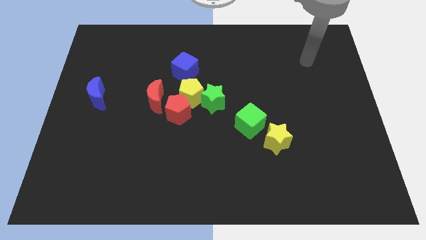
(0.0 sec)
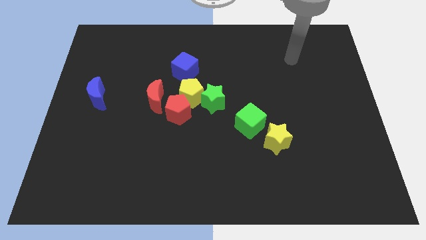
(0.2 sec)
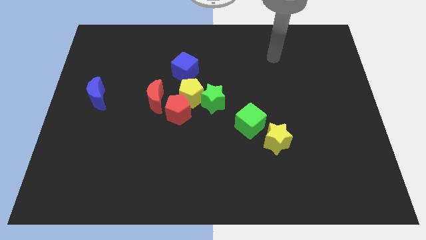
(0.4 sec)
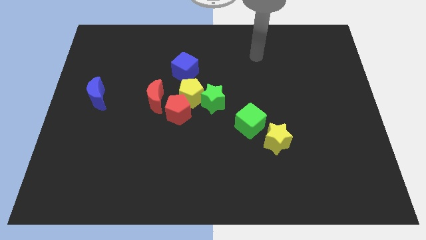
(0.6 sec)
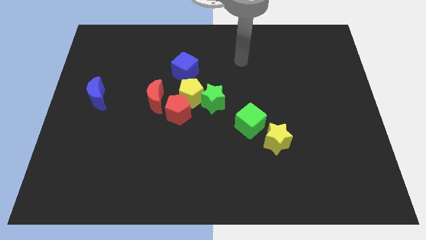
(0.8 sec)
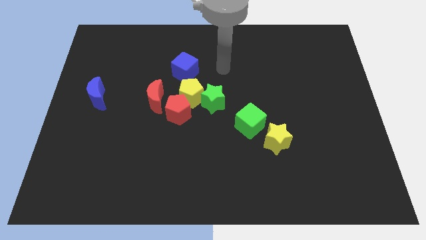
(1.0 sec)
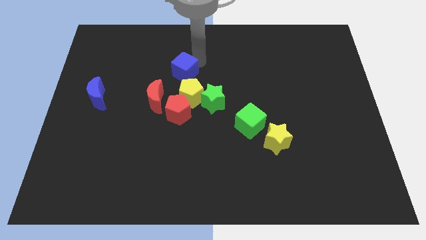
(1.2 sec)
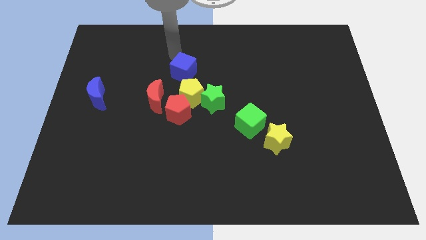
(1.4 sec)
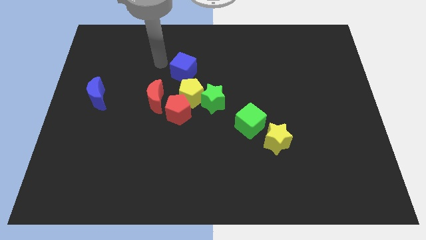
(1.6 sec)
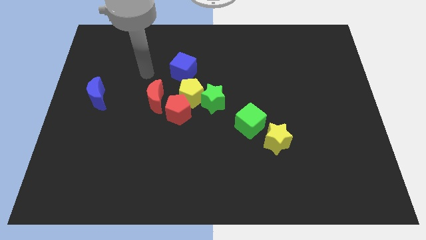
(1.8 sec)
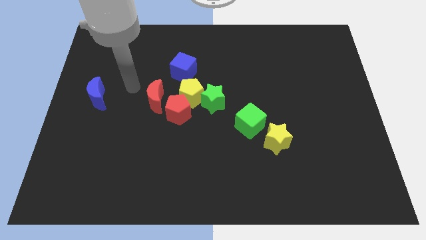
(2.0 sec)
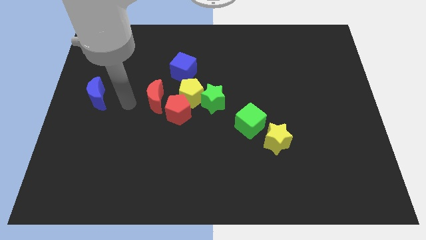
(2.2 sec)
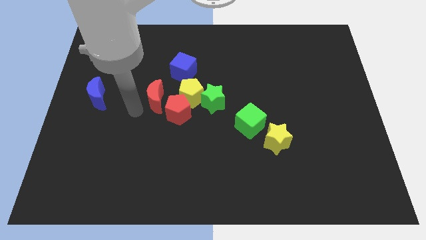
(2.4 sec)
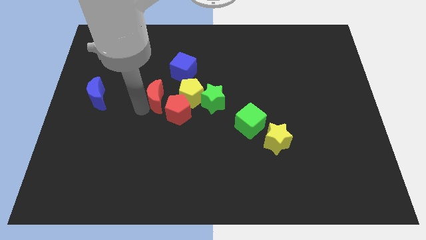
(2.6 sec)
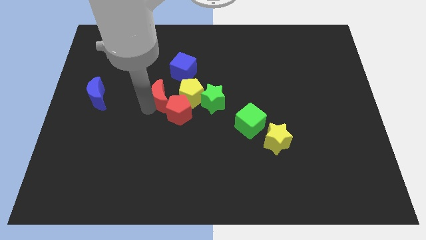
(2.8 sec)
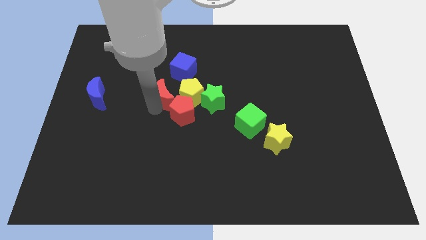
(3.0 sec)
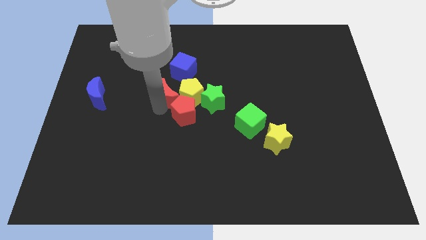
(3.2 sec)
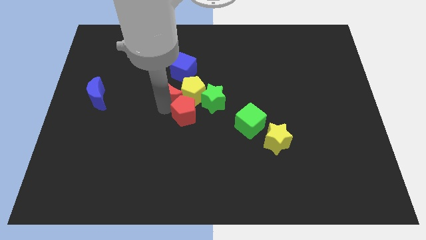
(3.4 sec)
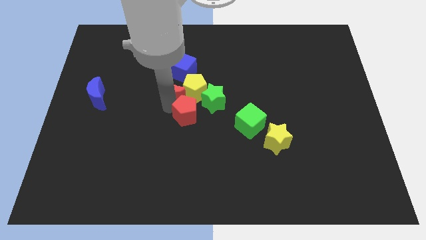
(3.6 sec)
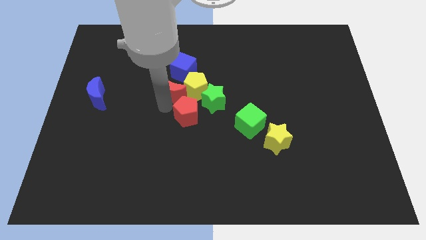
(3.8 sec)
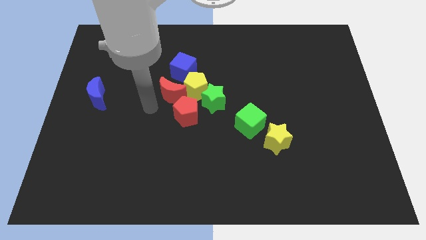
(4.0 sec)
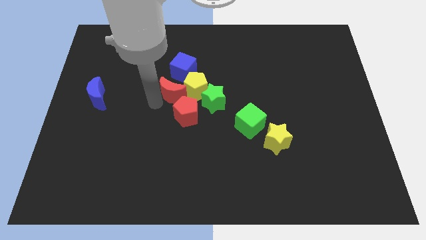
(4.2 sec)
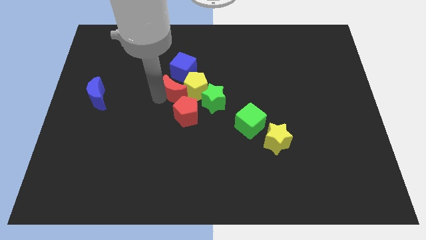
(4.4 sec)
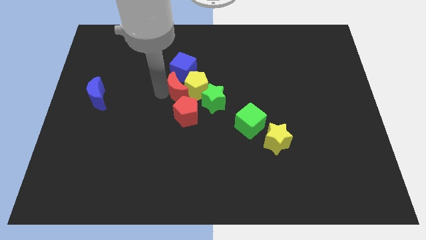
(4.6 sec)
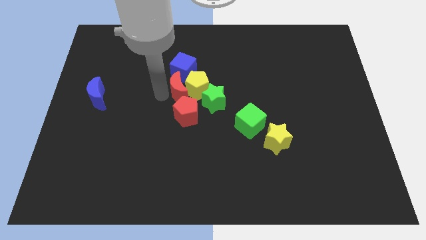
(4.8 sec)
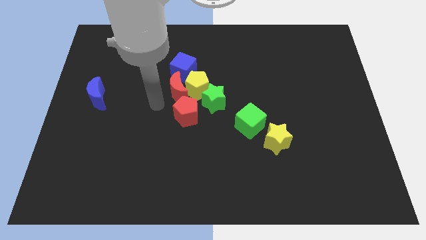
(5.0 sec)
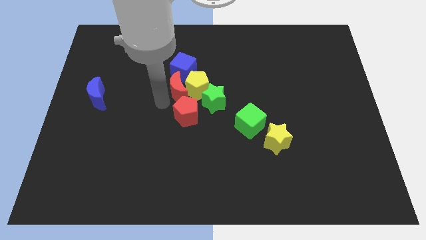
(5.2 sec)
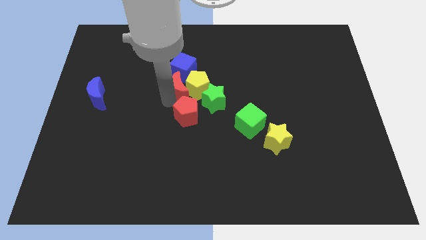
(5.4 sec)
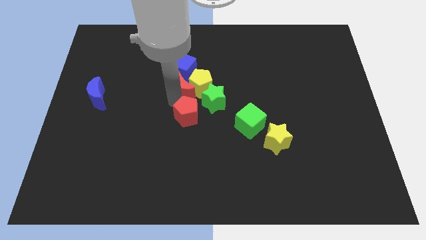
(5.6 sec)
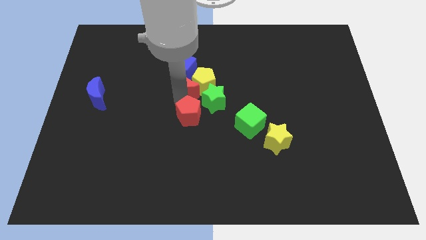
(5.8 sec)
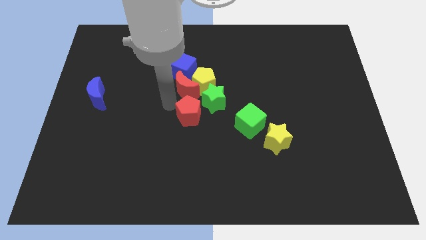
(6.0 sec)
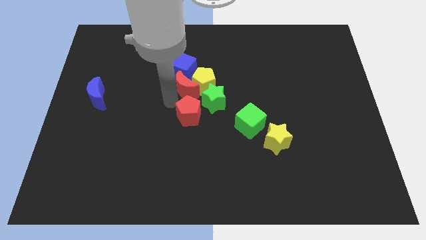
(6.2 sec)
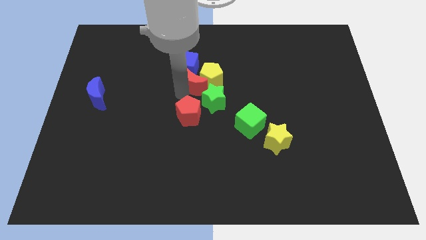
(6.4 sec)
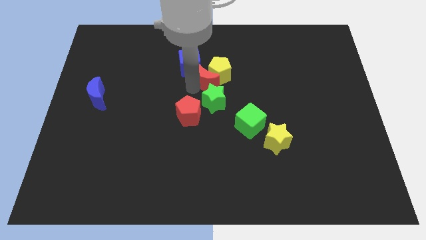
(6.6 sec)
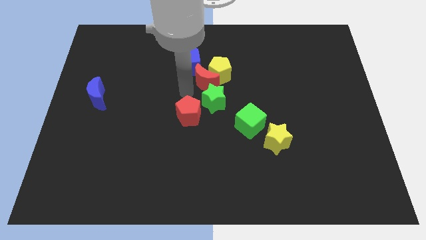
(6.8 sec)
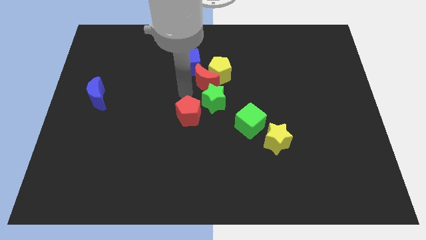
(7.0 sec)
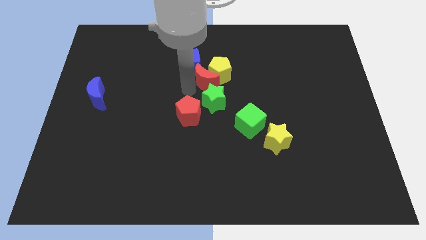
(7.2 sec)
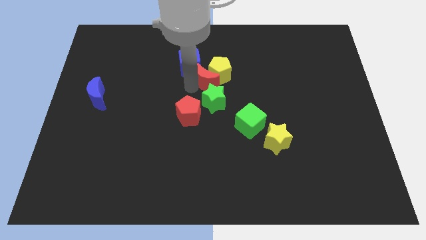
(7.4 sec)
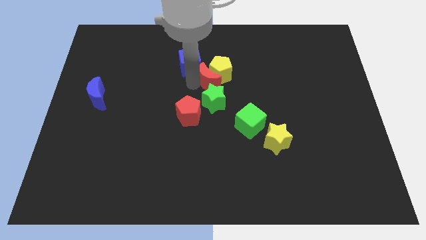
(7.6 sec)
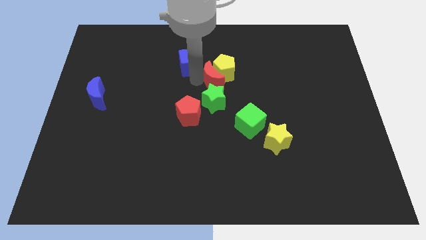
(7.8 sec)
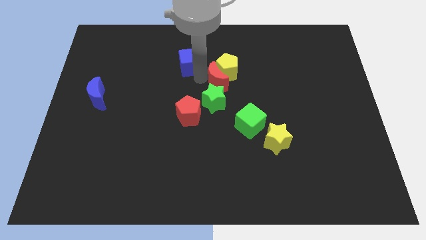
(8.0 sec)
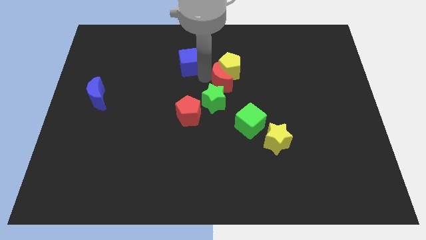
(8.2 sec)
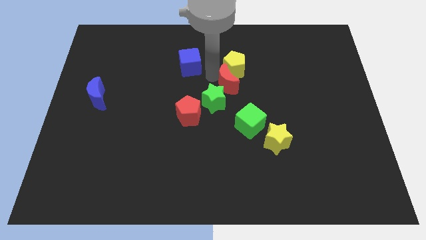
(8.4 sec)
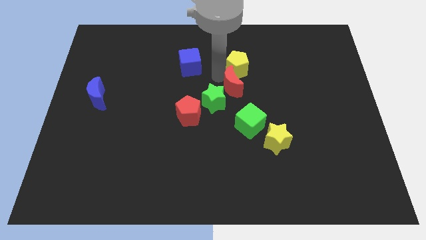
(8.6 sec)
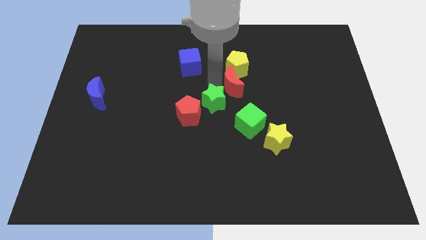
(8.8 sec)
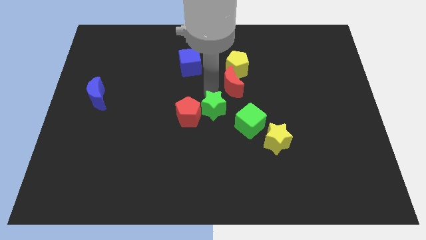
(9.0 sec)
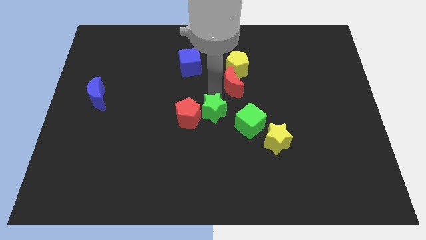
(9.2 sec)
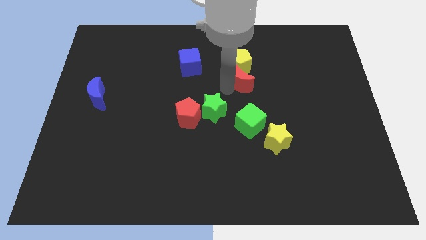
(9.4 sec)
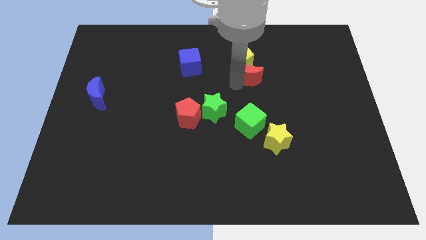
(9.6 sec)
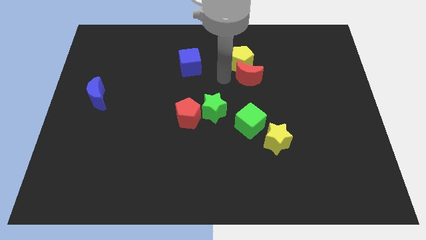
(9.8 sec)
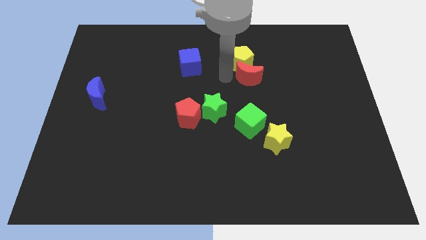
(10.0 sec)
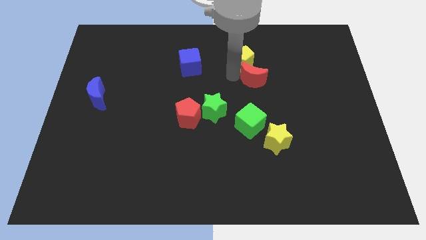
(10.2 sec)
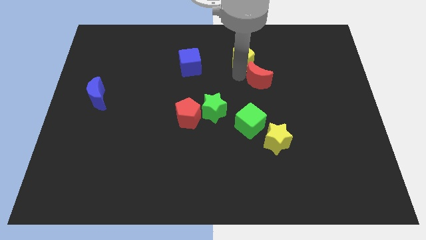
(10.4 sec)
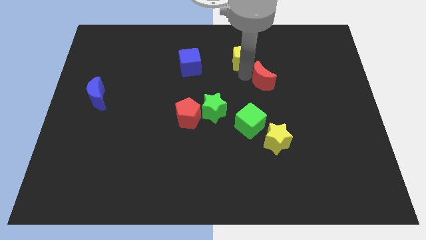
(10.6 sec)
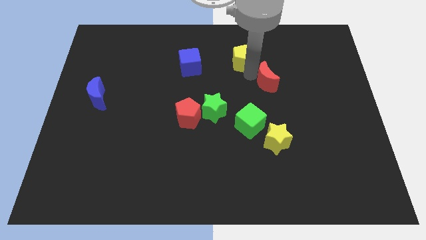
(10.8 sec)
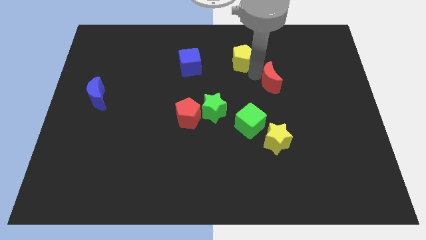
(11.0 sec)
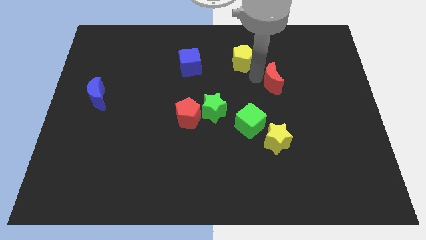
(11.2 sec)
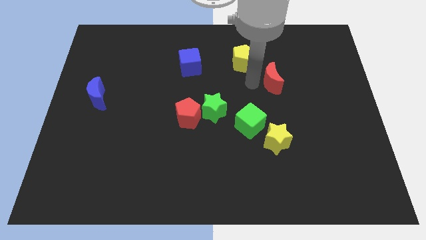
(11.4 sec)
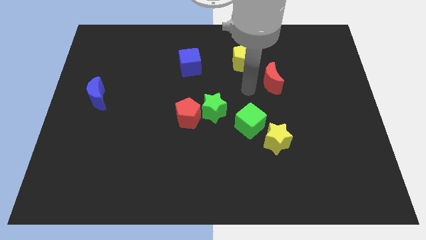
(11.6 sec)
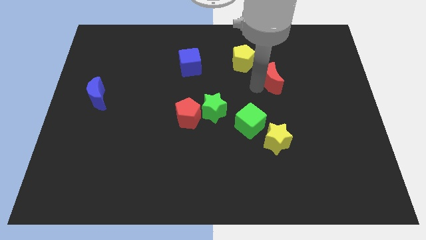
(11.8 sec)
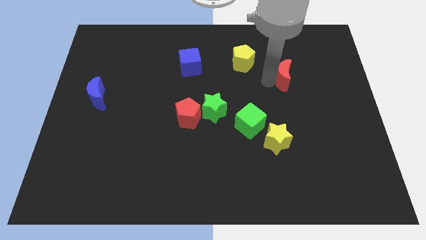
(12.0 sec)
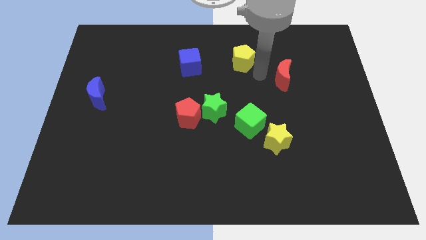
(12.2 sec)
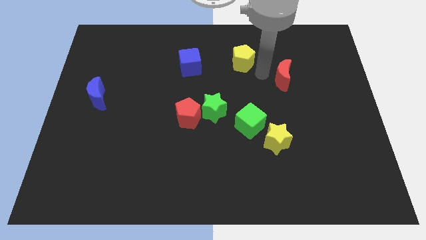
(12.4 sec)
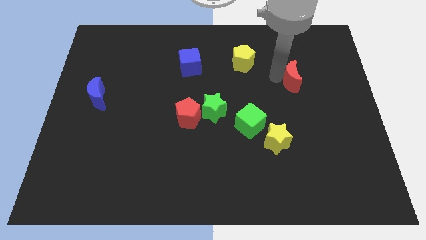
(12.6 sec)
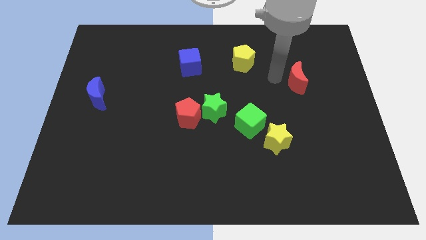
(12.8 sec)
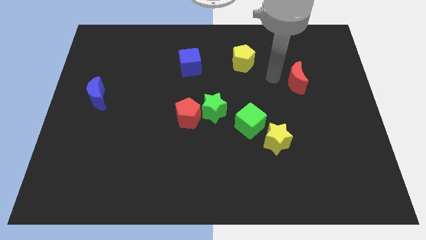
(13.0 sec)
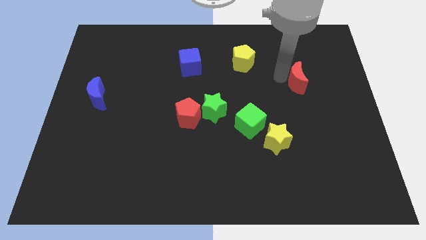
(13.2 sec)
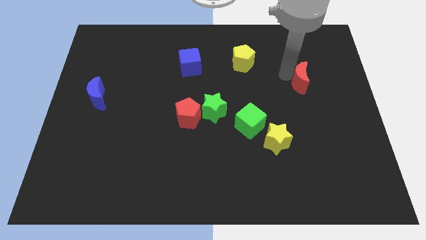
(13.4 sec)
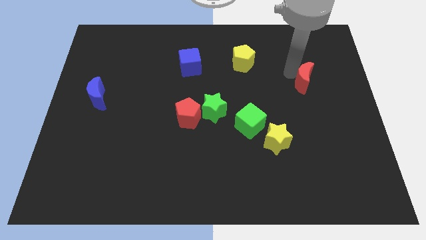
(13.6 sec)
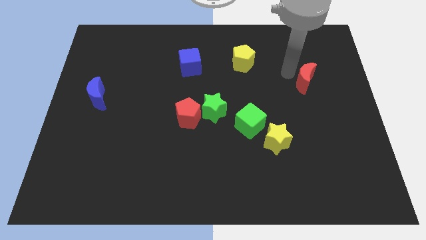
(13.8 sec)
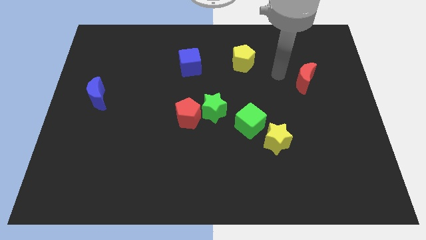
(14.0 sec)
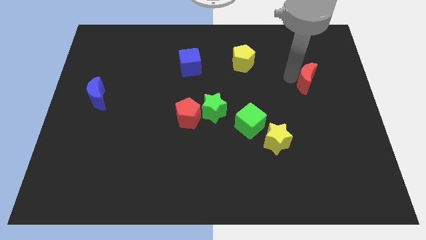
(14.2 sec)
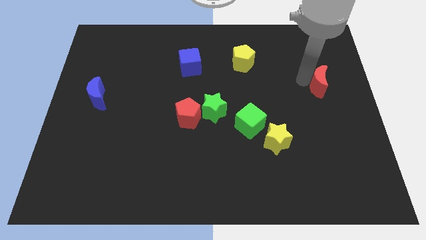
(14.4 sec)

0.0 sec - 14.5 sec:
push the red moon to the right side of the board
